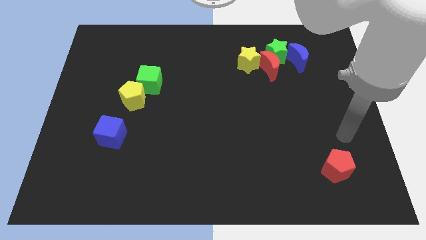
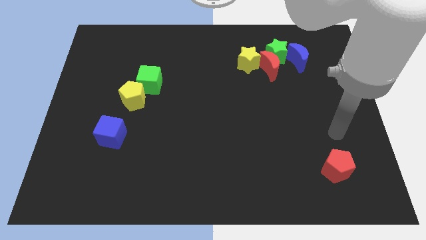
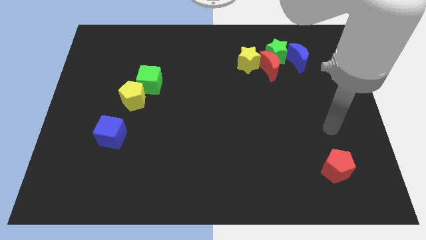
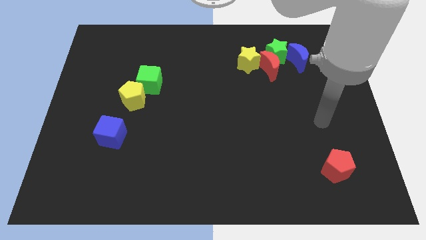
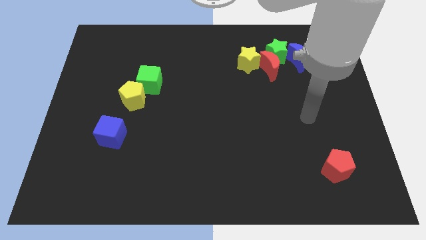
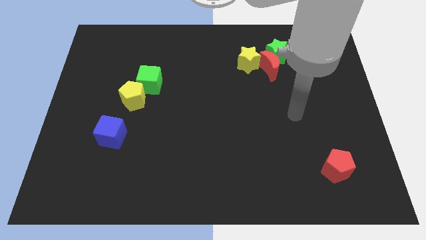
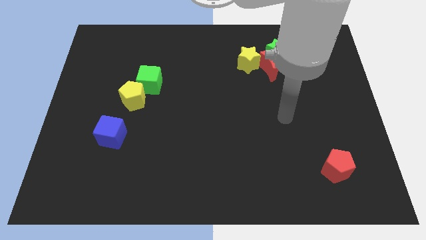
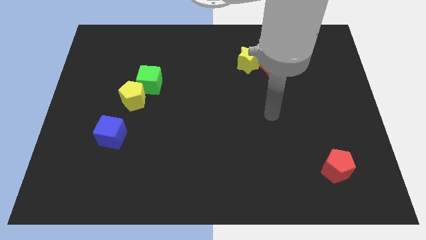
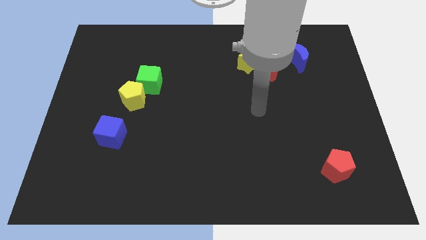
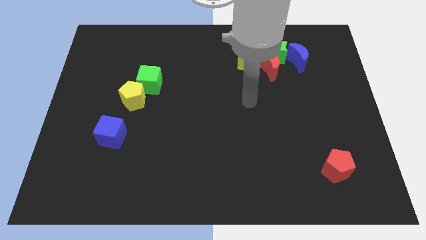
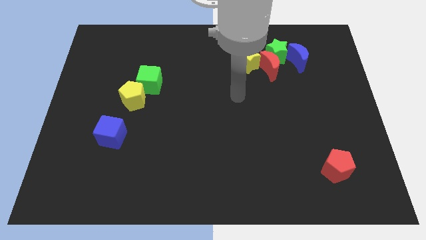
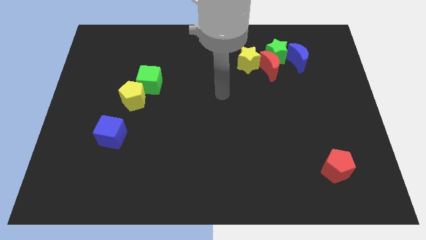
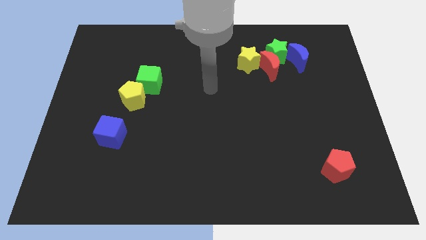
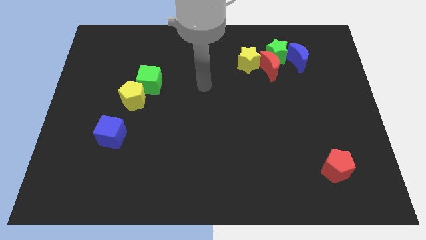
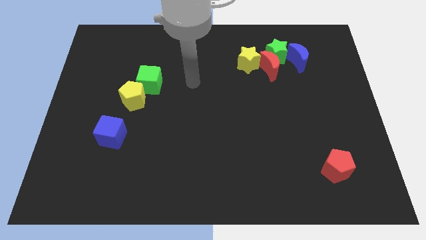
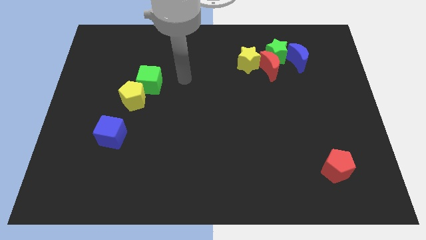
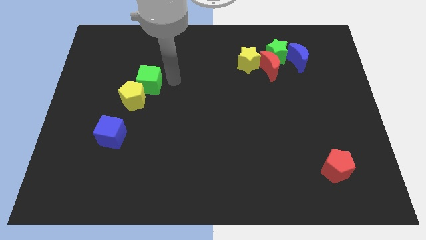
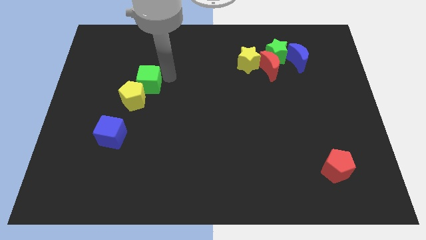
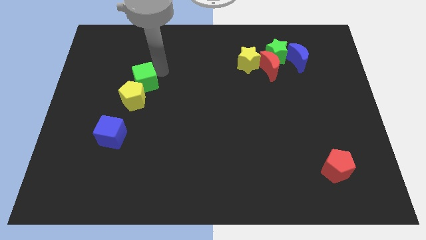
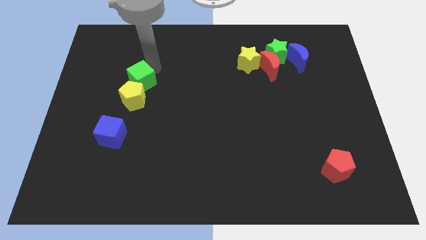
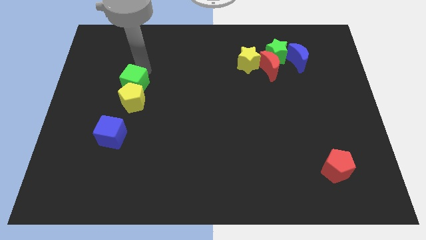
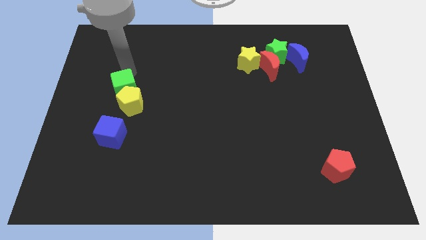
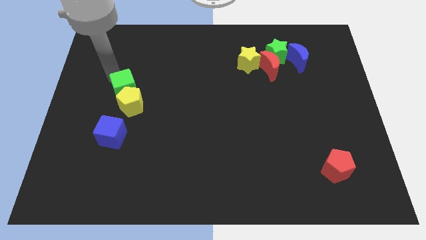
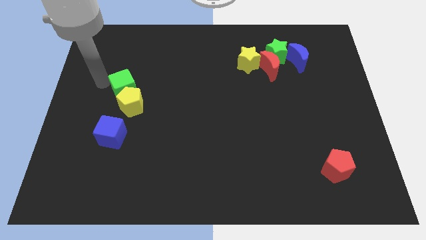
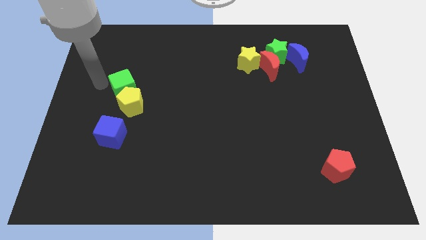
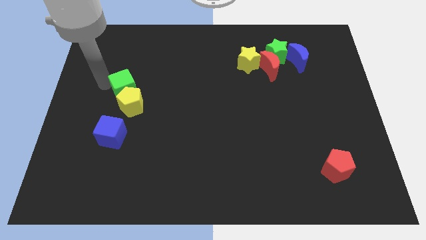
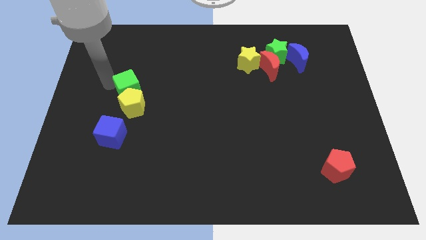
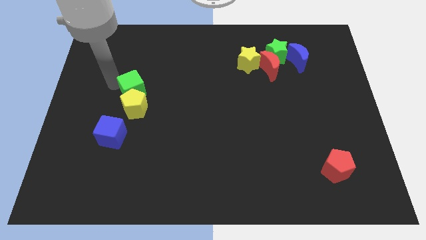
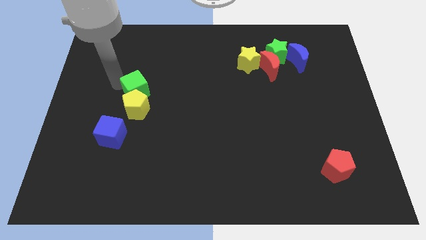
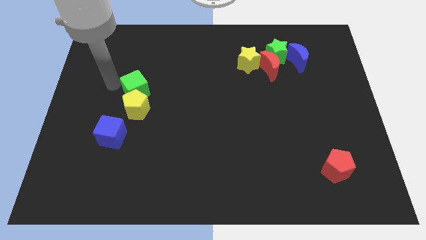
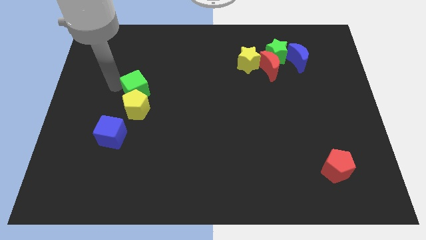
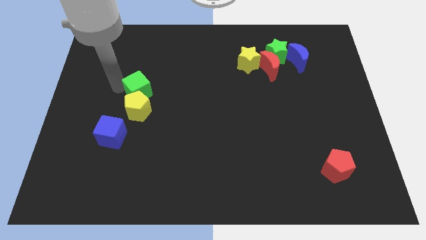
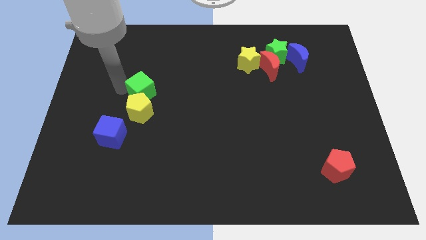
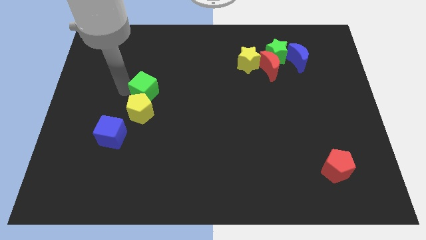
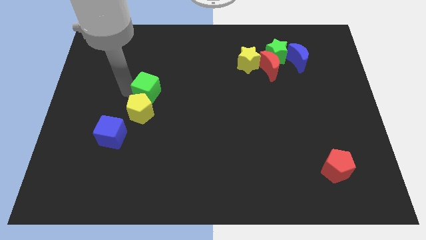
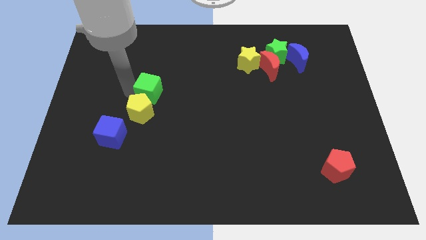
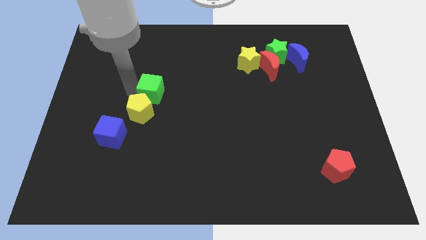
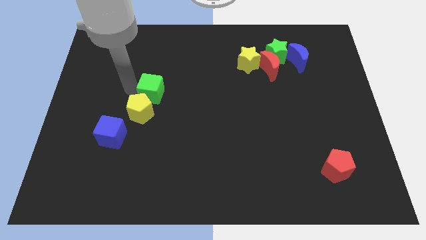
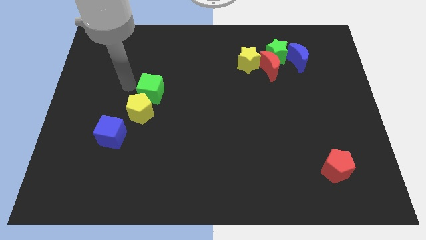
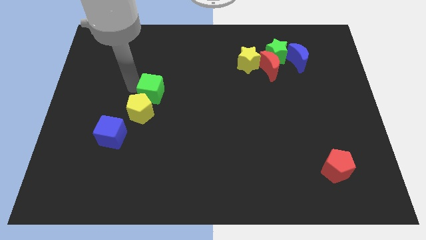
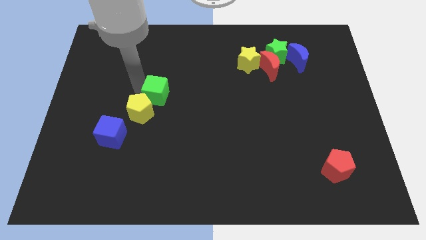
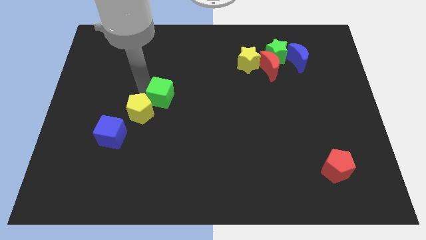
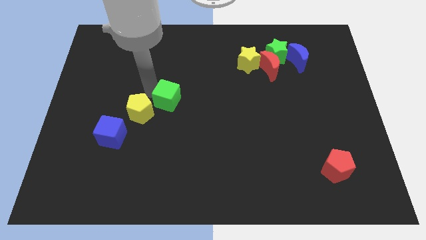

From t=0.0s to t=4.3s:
slightly slide the green cube downwards and right

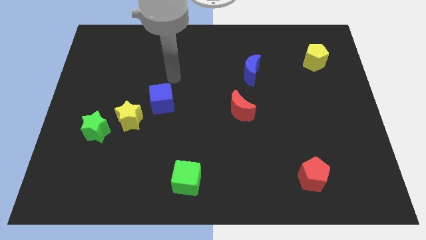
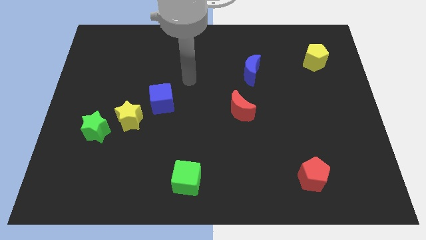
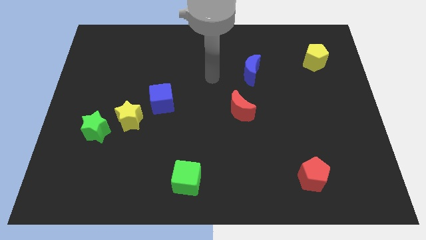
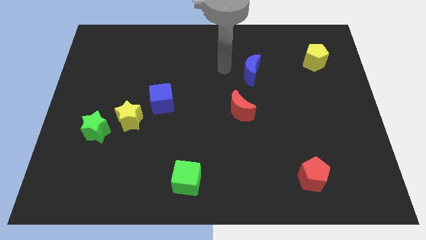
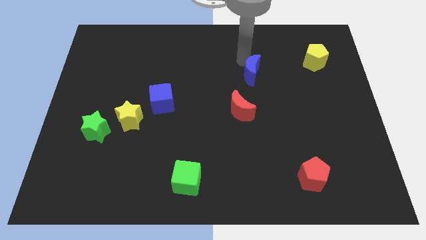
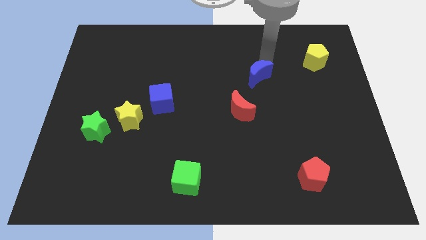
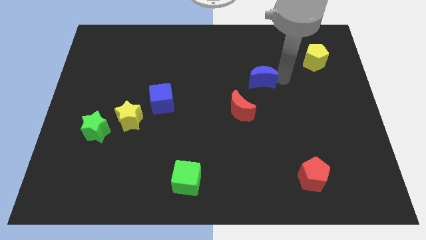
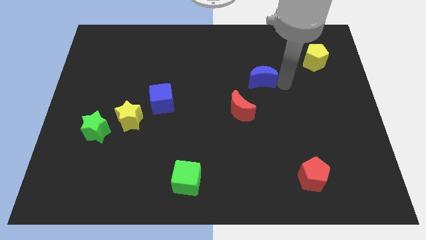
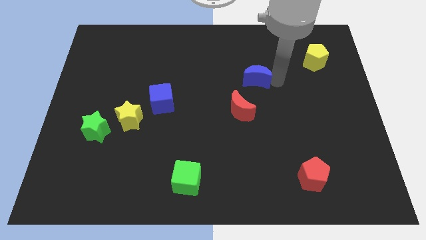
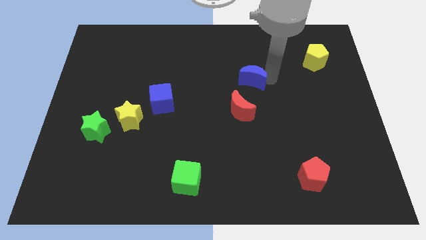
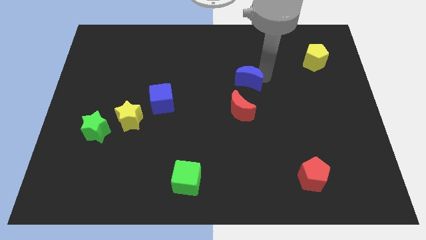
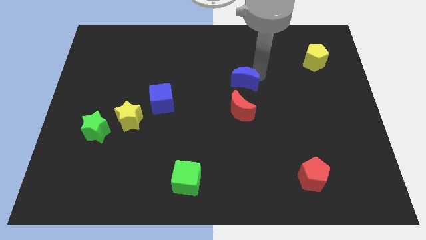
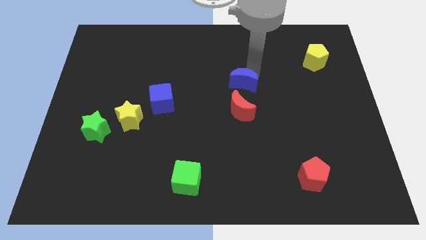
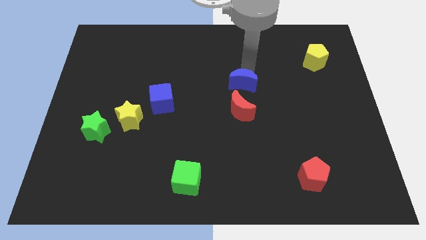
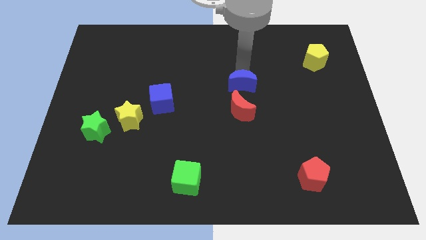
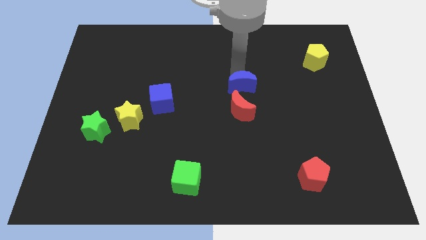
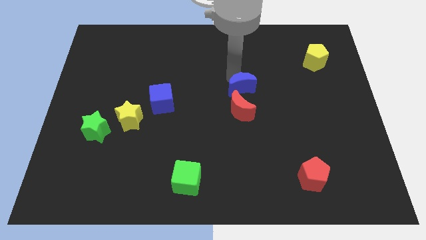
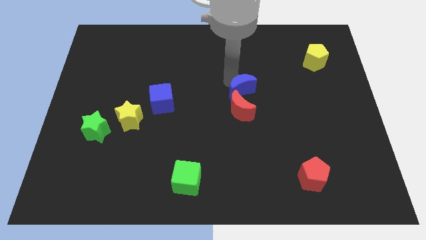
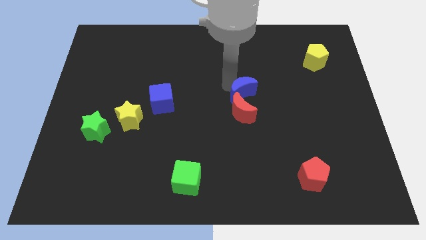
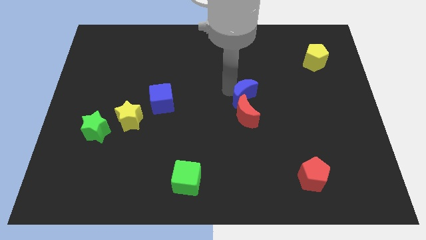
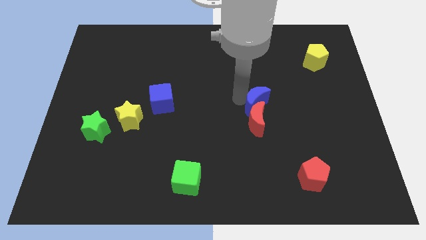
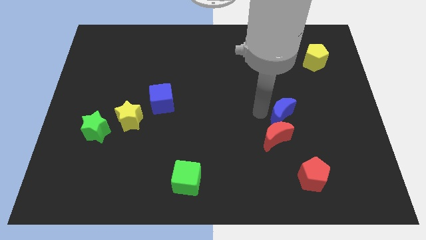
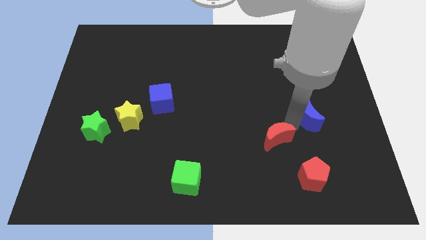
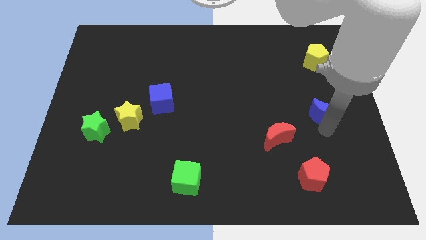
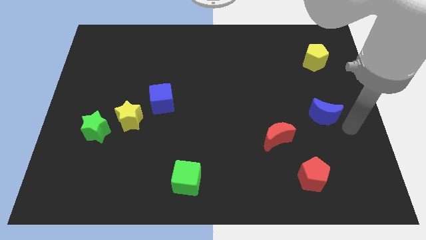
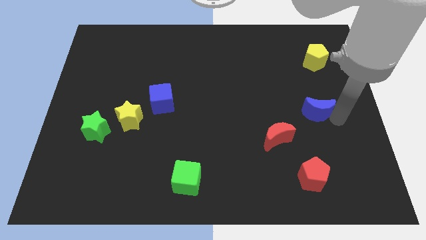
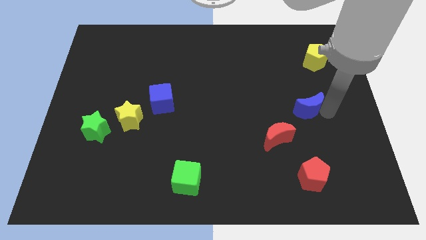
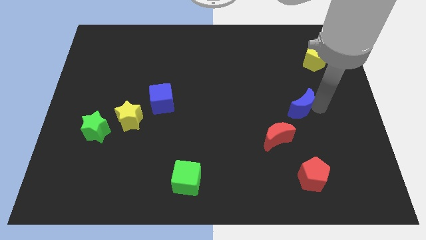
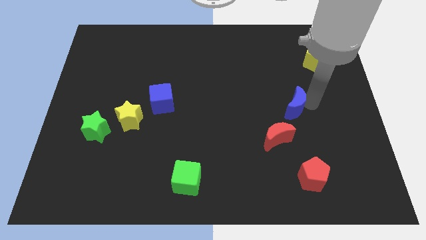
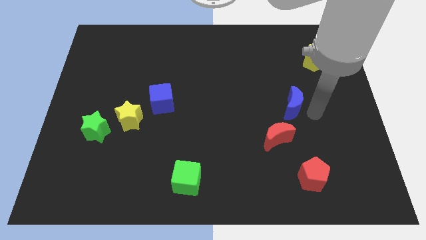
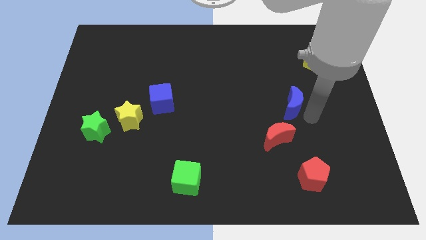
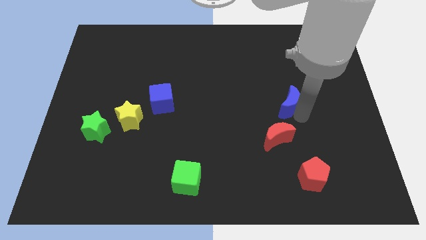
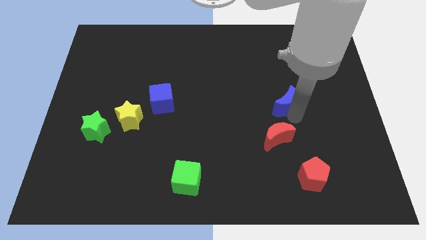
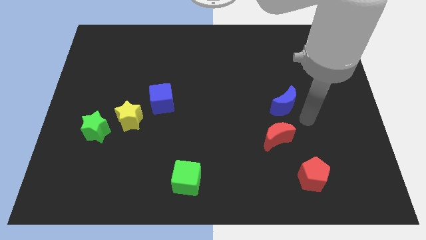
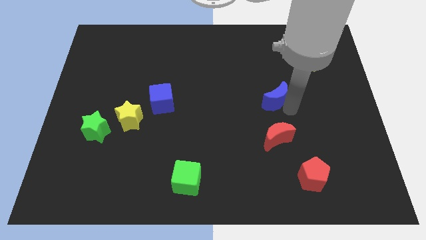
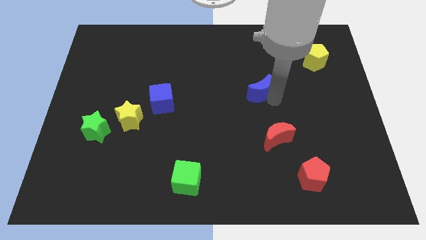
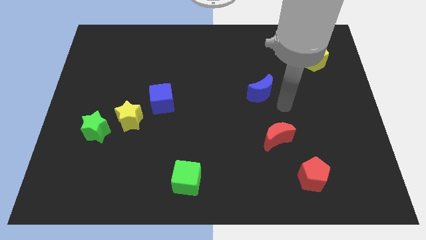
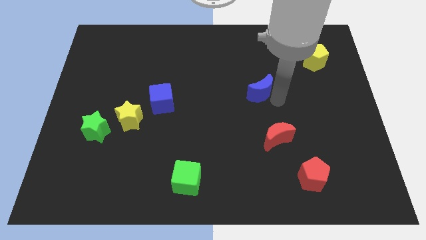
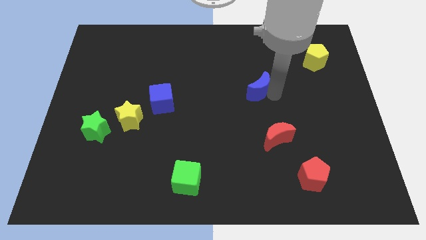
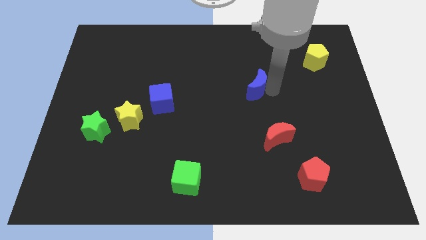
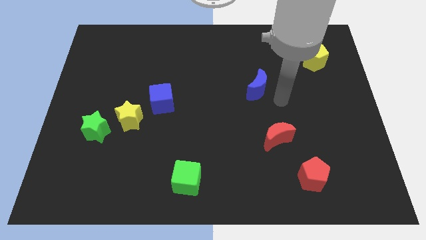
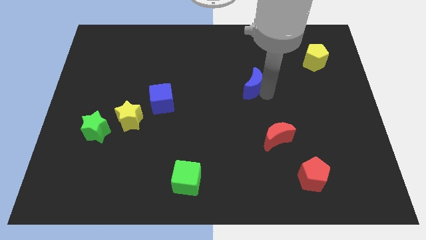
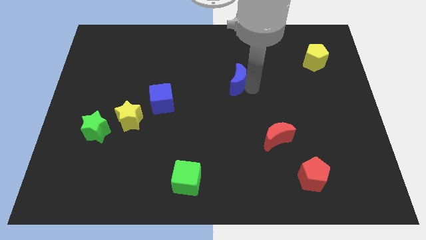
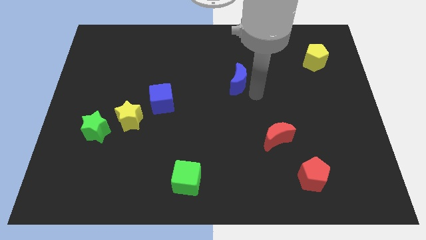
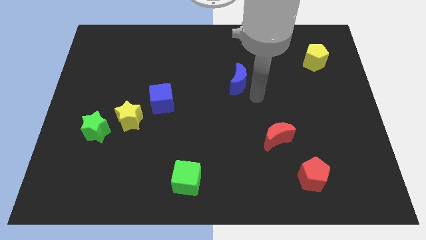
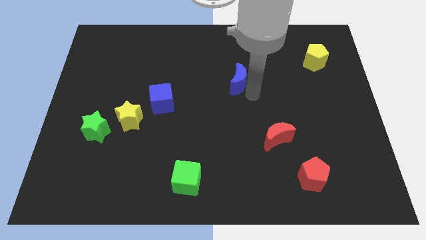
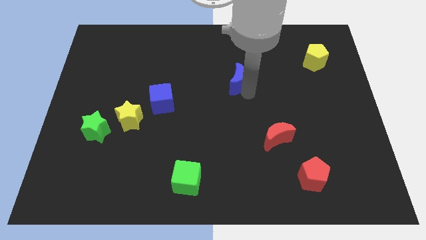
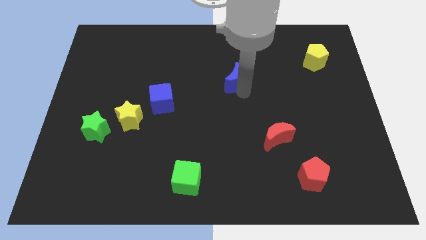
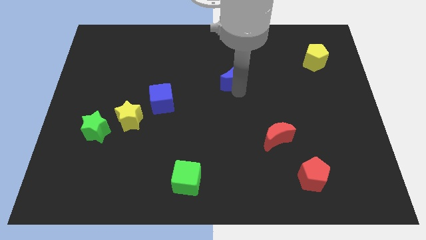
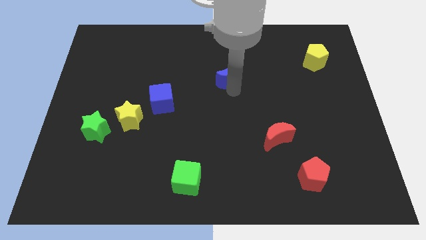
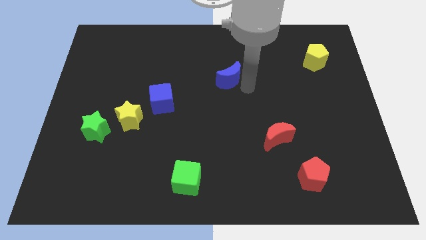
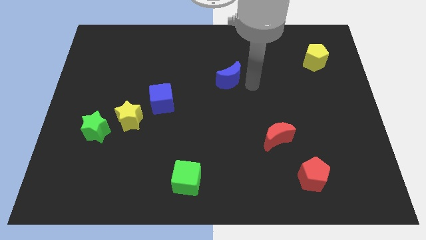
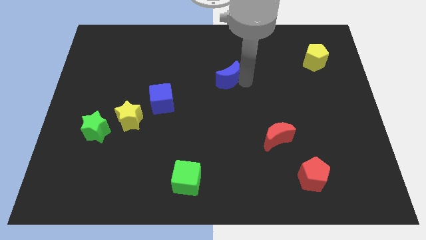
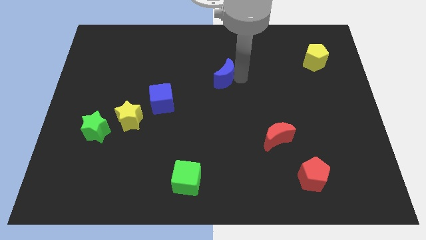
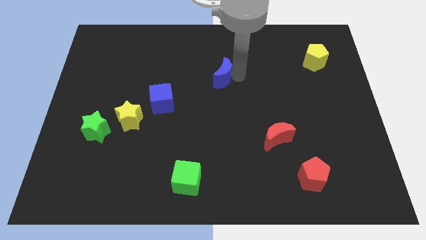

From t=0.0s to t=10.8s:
slide the blue moon left a little bit
